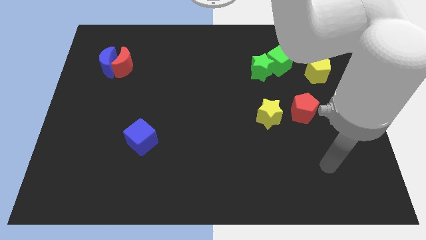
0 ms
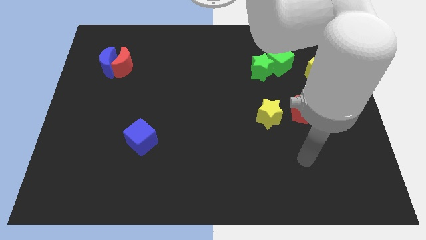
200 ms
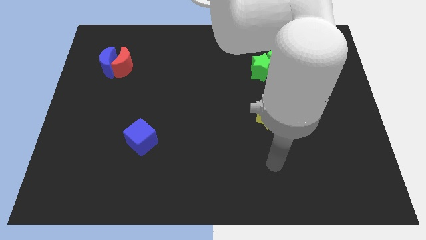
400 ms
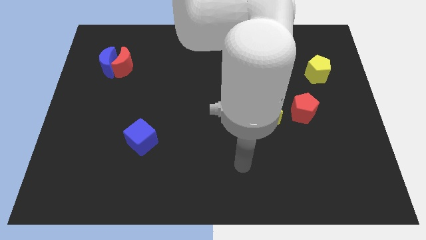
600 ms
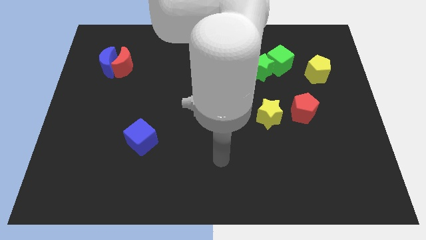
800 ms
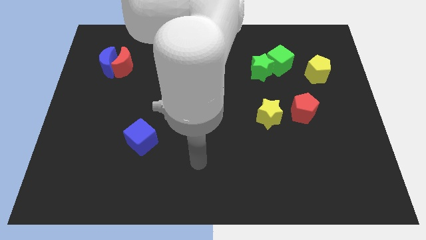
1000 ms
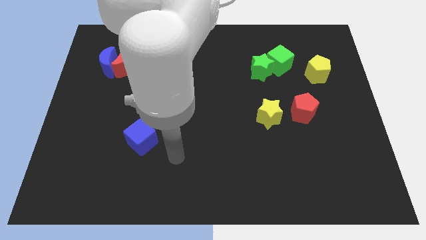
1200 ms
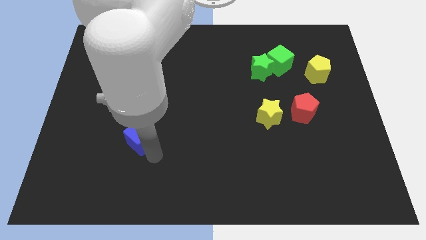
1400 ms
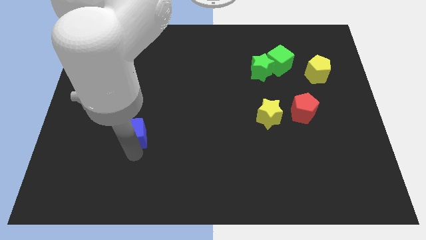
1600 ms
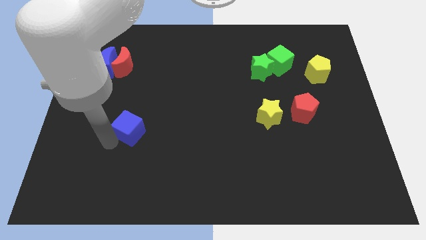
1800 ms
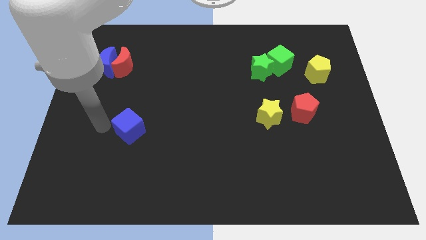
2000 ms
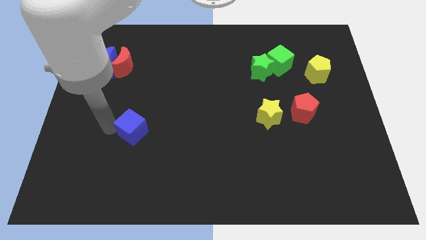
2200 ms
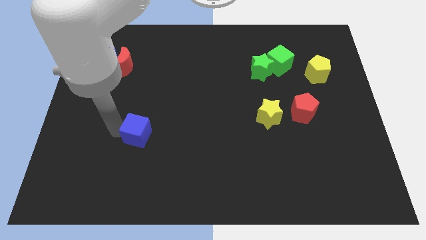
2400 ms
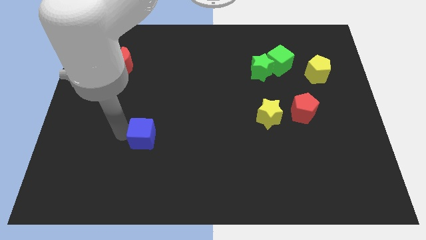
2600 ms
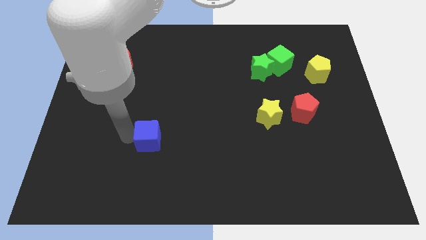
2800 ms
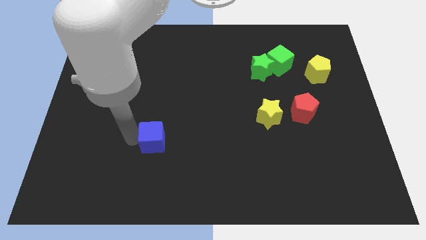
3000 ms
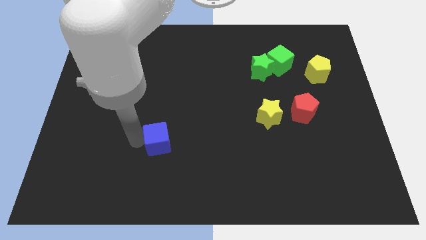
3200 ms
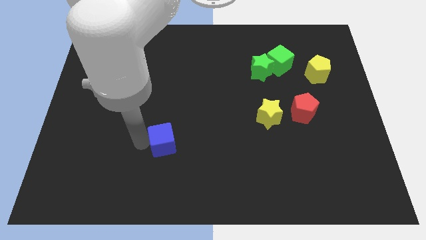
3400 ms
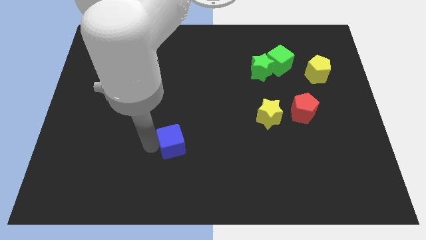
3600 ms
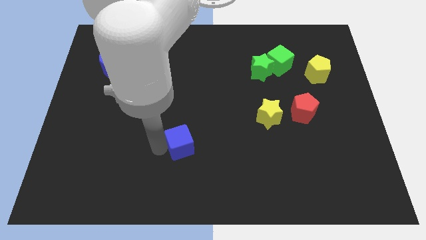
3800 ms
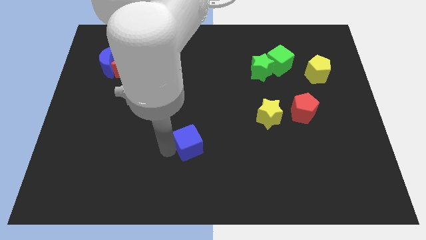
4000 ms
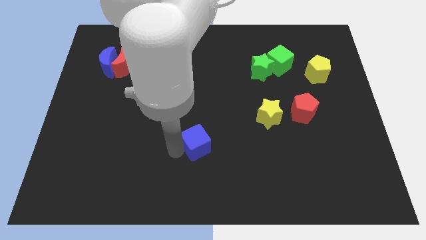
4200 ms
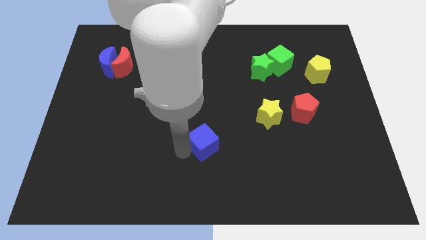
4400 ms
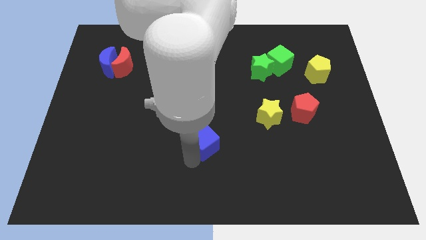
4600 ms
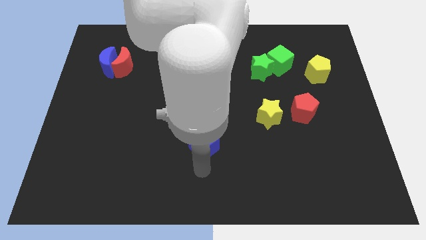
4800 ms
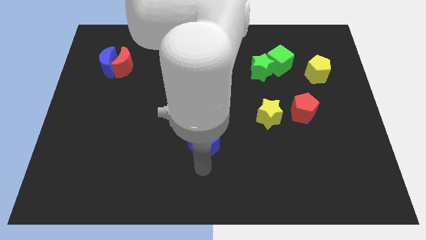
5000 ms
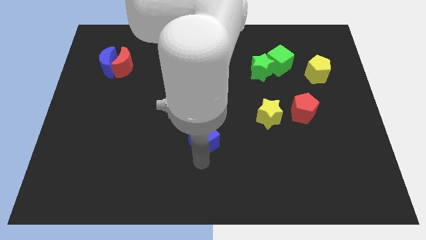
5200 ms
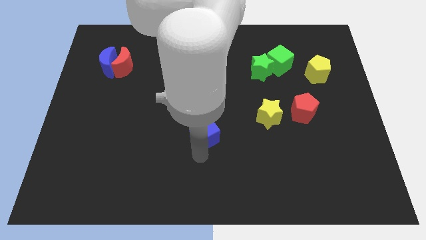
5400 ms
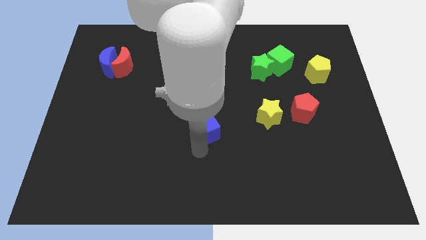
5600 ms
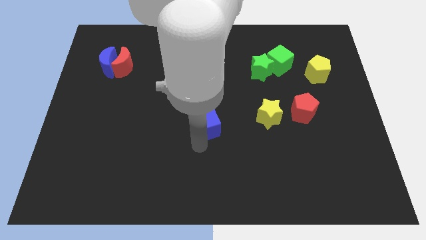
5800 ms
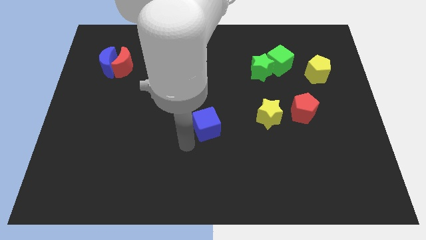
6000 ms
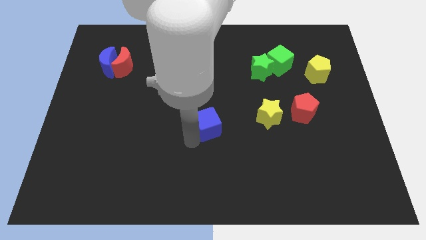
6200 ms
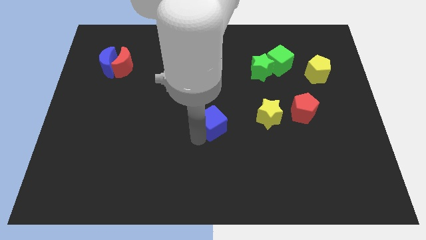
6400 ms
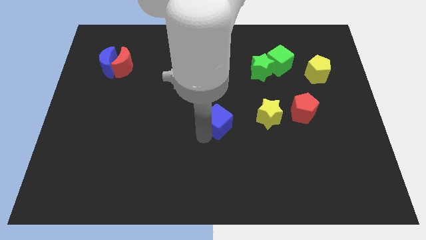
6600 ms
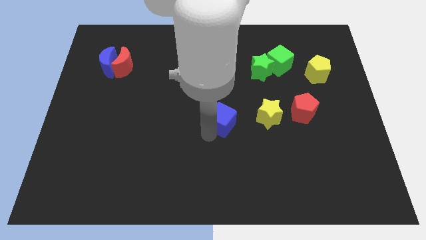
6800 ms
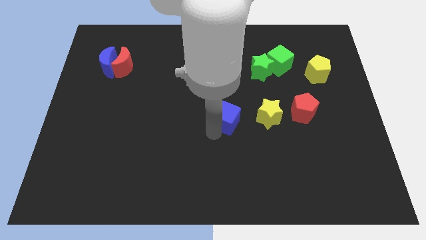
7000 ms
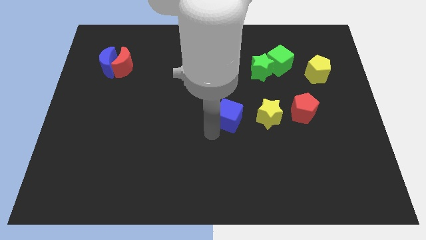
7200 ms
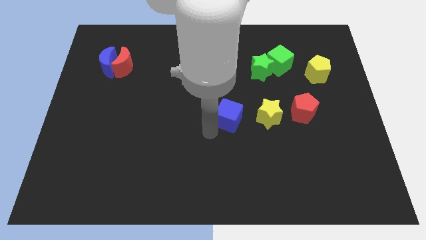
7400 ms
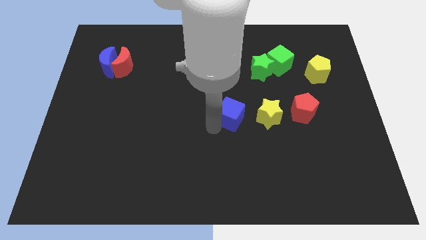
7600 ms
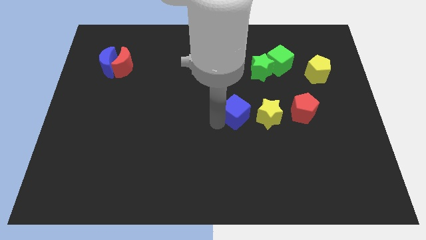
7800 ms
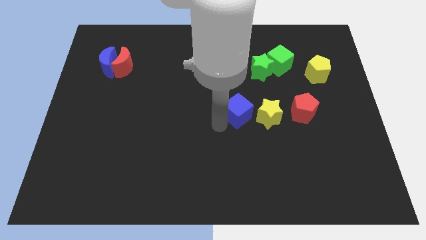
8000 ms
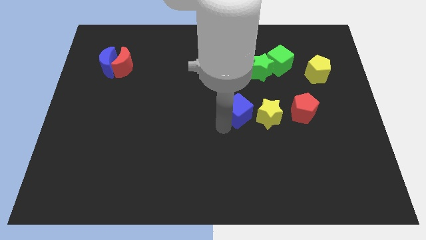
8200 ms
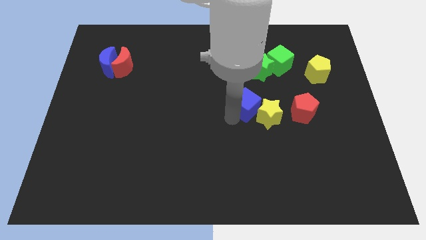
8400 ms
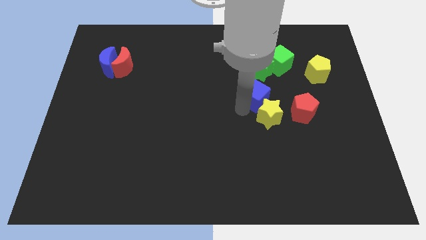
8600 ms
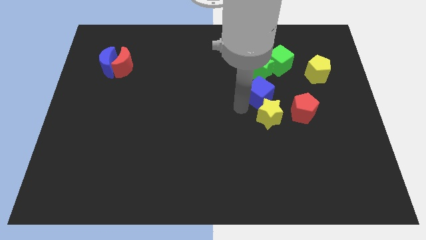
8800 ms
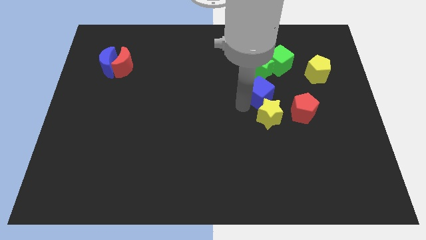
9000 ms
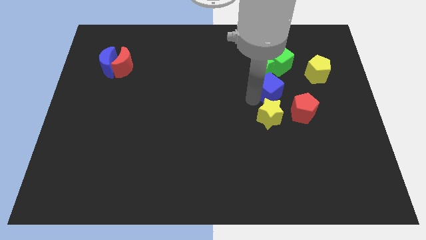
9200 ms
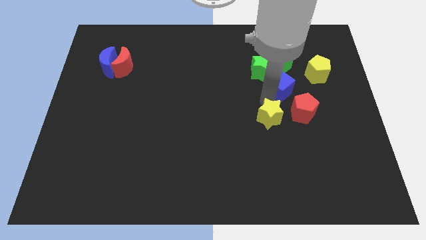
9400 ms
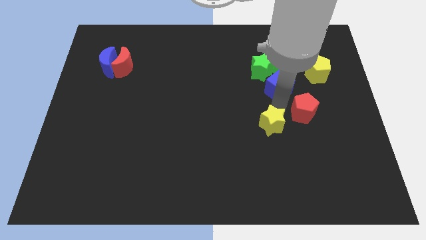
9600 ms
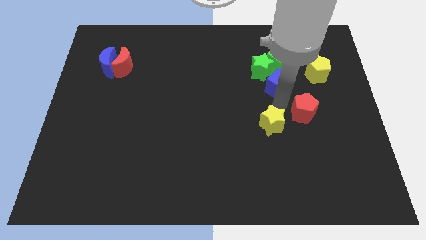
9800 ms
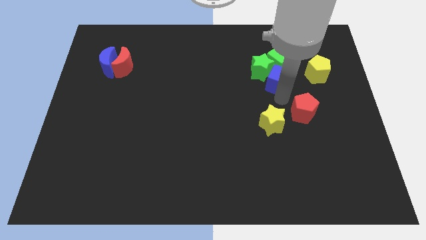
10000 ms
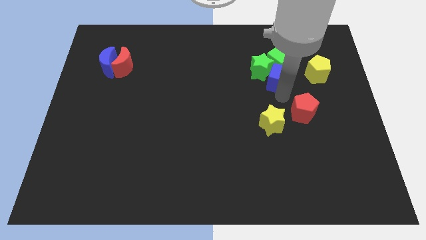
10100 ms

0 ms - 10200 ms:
slide the blue cube close to the green cube

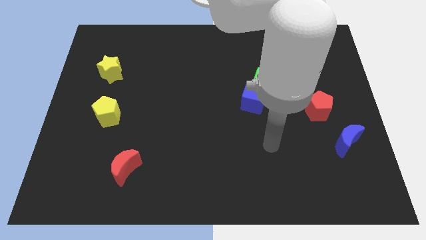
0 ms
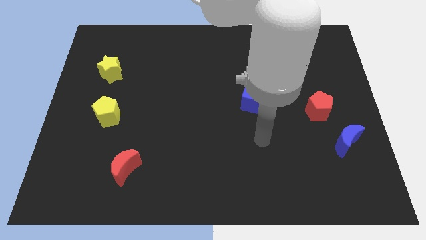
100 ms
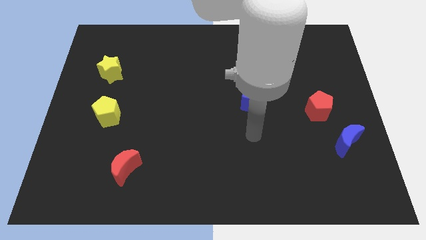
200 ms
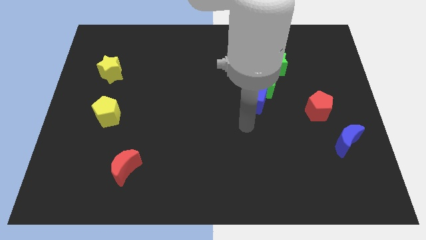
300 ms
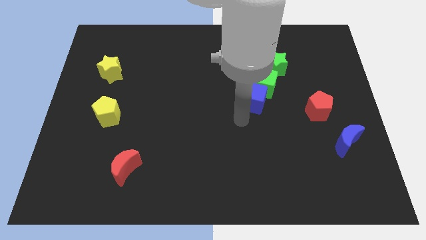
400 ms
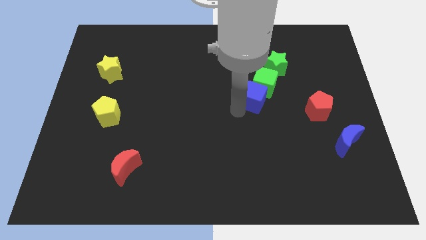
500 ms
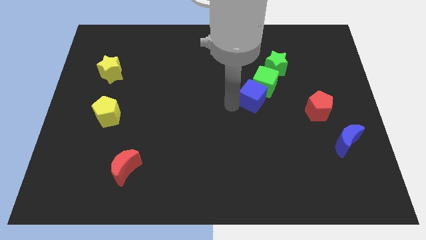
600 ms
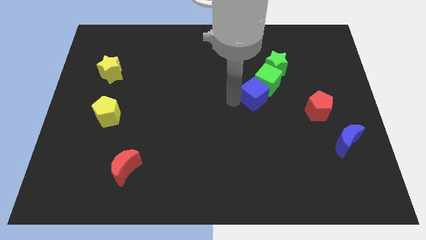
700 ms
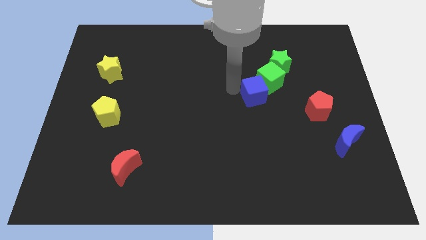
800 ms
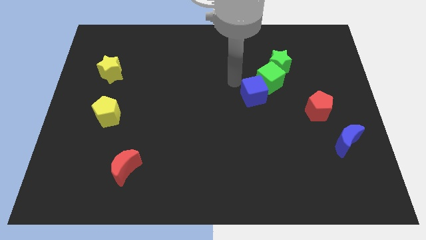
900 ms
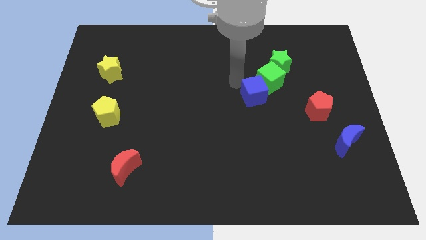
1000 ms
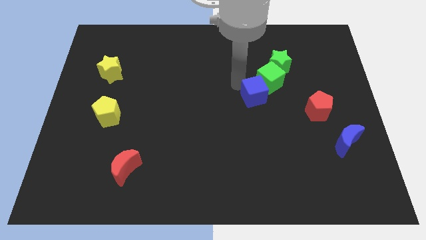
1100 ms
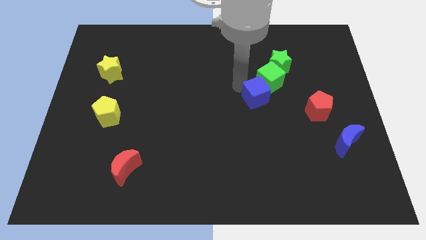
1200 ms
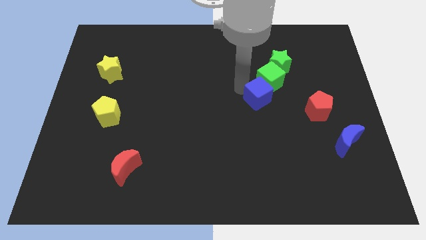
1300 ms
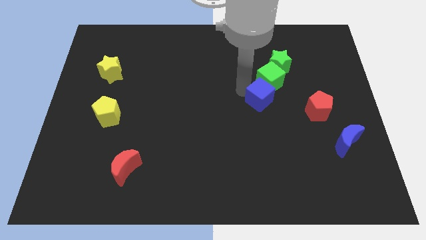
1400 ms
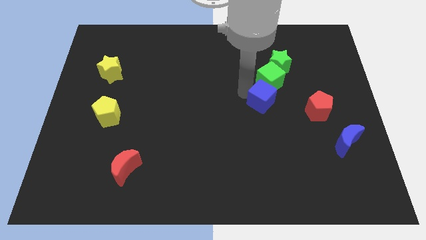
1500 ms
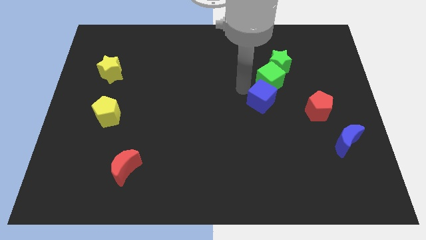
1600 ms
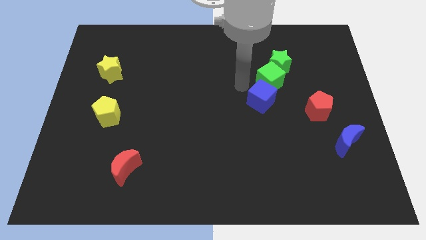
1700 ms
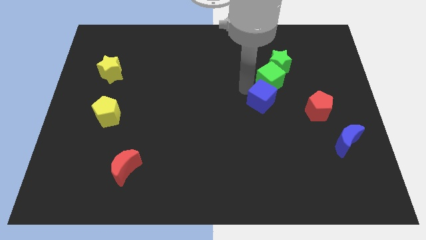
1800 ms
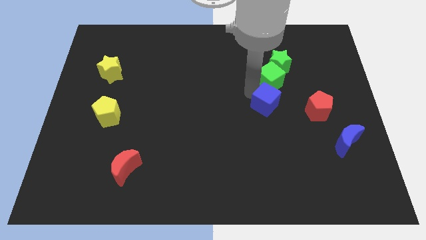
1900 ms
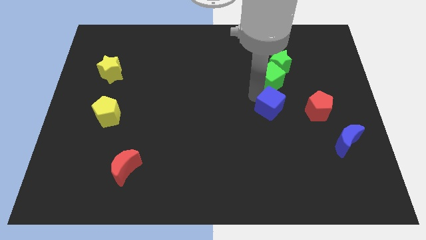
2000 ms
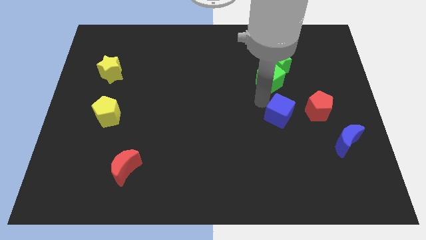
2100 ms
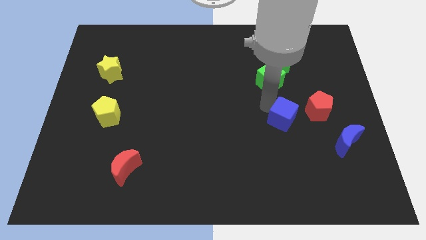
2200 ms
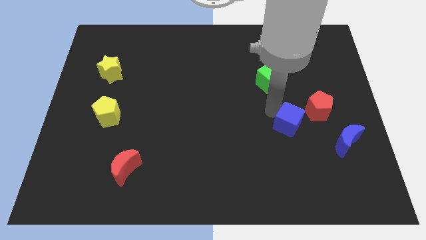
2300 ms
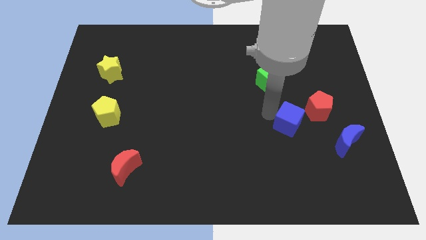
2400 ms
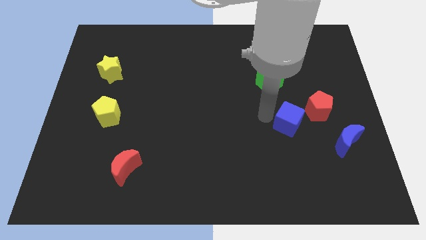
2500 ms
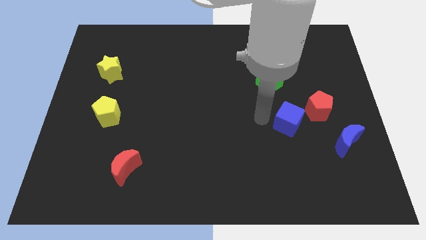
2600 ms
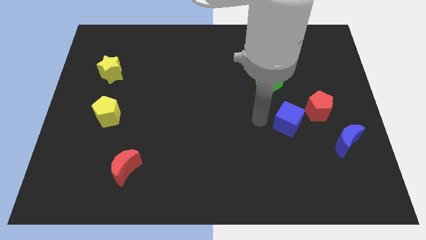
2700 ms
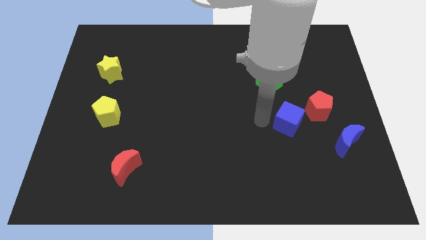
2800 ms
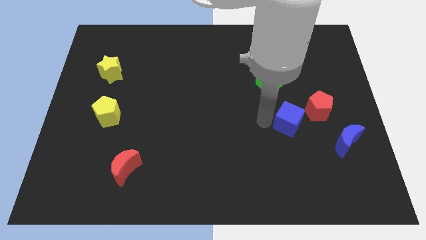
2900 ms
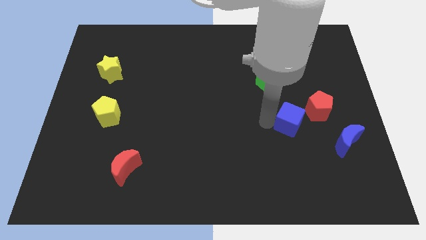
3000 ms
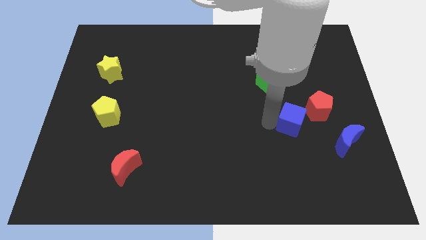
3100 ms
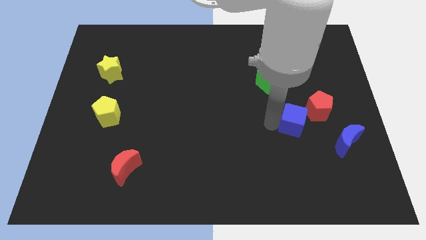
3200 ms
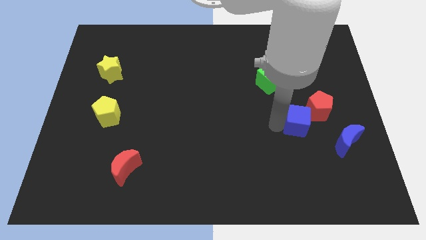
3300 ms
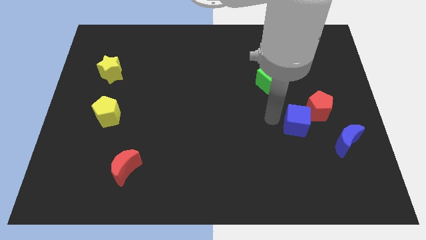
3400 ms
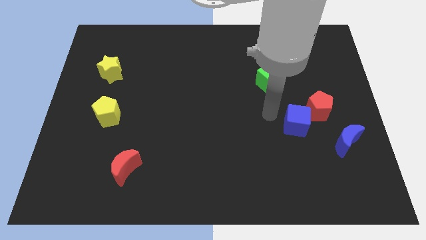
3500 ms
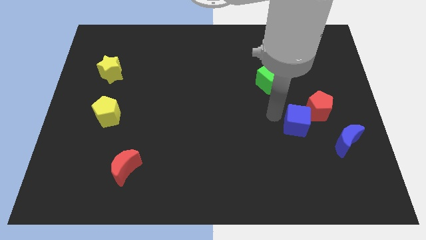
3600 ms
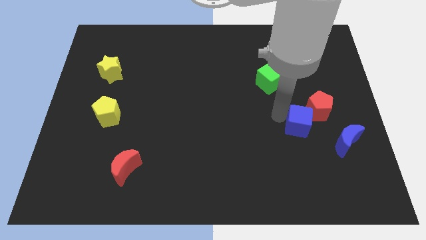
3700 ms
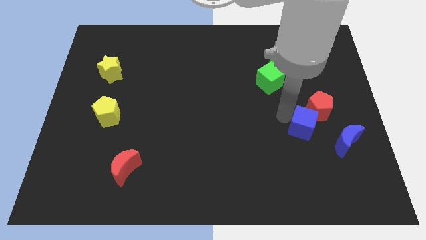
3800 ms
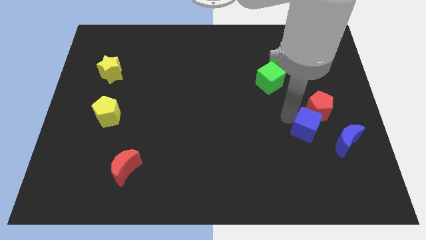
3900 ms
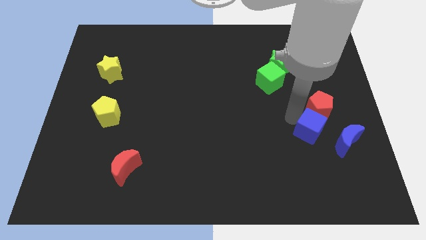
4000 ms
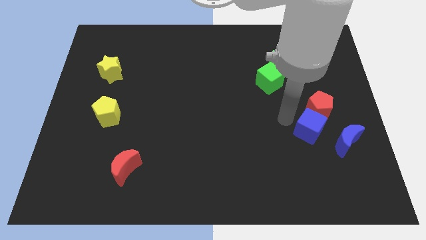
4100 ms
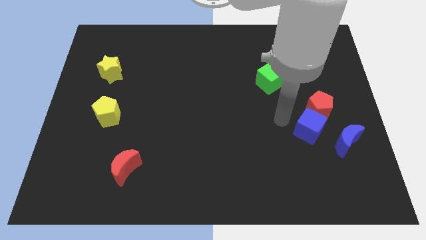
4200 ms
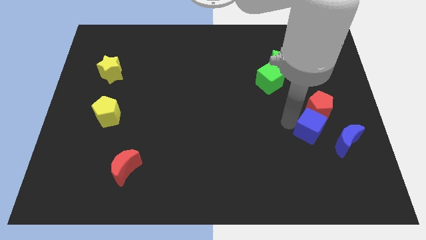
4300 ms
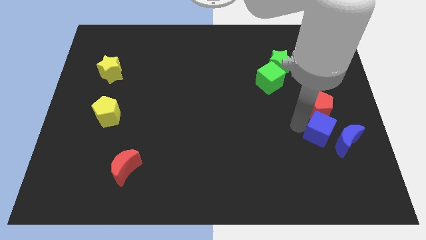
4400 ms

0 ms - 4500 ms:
move the blue cube next to the blue moon
